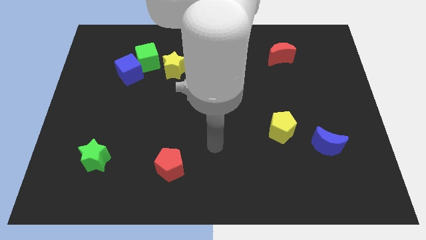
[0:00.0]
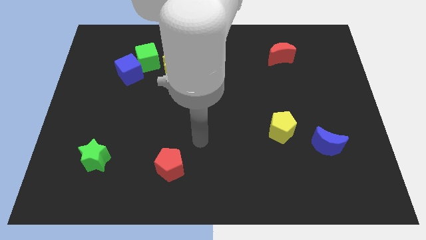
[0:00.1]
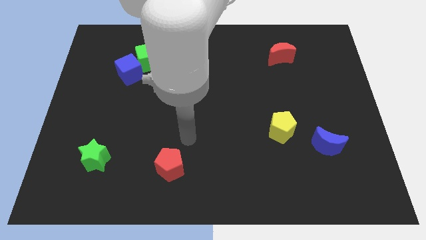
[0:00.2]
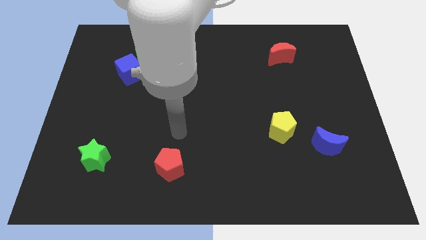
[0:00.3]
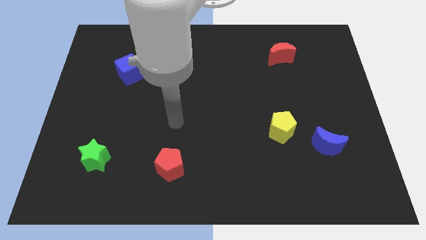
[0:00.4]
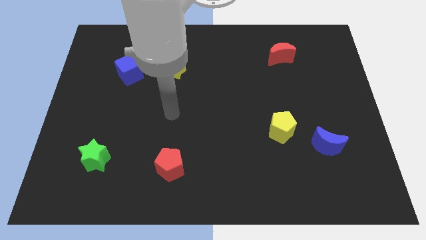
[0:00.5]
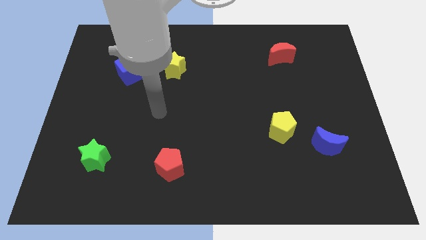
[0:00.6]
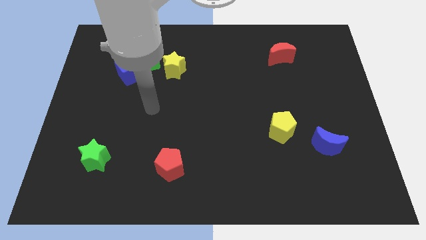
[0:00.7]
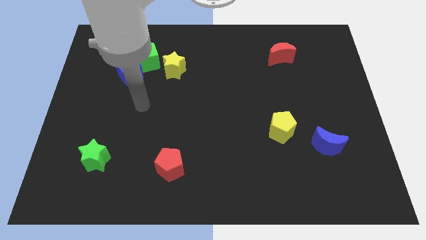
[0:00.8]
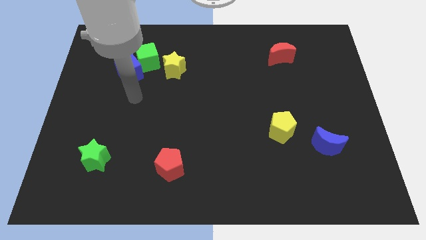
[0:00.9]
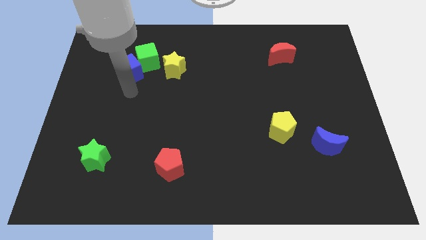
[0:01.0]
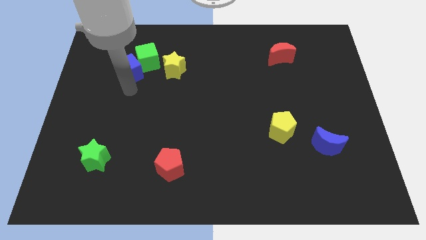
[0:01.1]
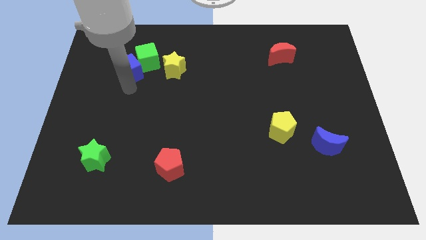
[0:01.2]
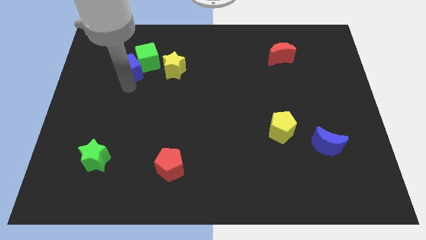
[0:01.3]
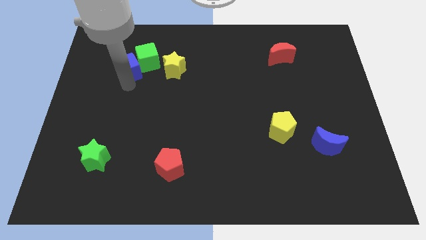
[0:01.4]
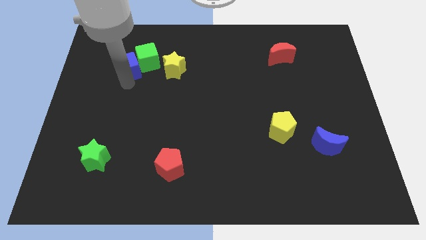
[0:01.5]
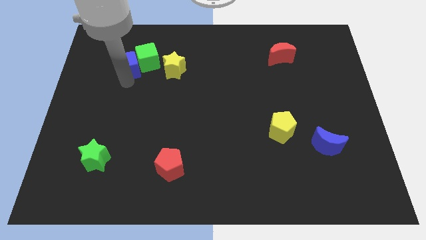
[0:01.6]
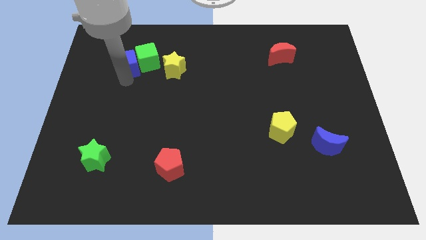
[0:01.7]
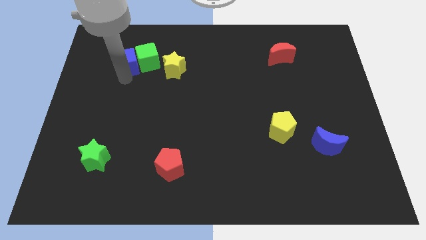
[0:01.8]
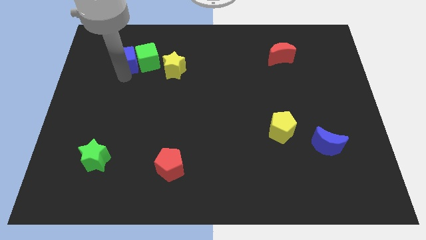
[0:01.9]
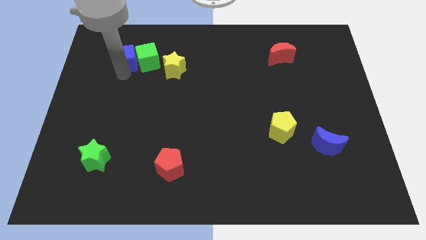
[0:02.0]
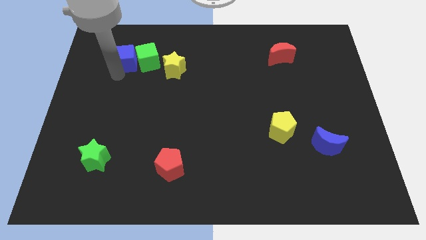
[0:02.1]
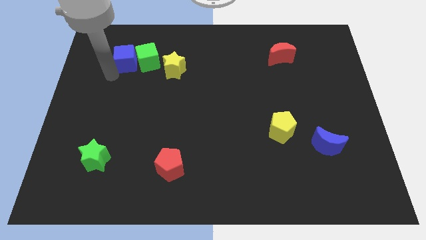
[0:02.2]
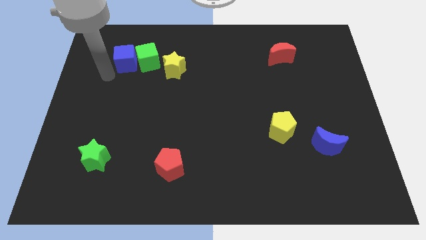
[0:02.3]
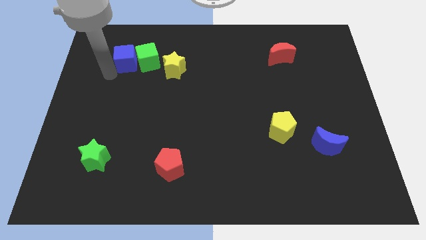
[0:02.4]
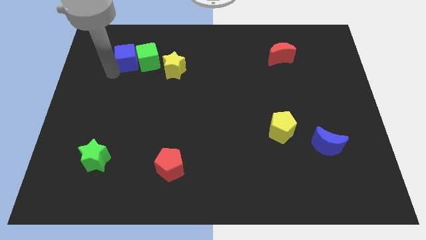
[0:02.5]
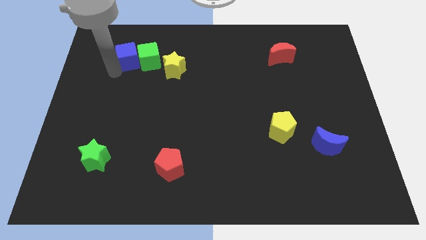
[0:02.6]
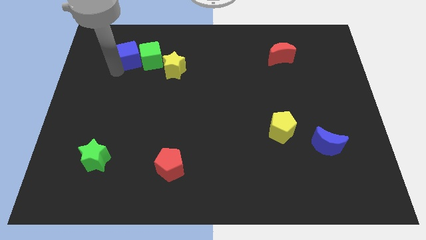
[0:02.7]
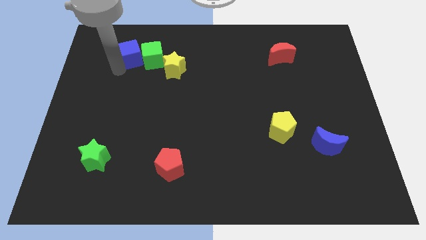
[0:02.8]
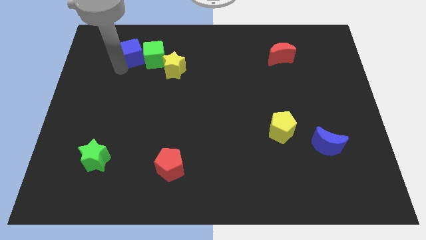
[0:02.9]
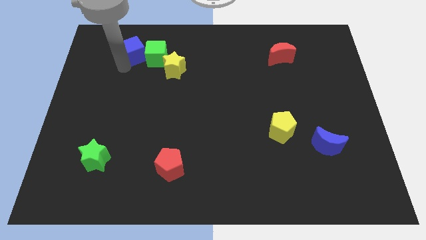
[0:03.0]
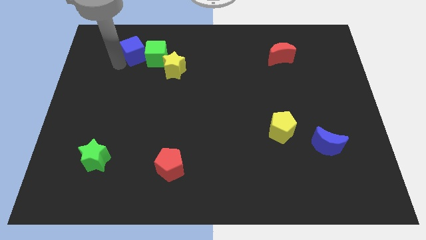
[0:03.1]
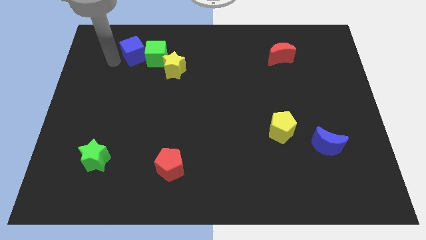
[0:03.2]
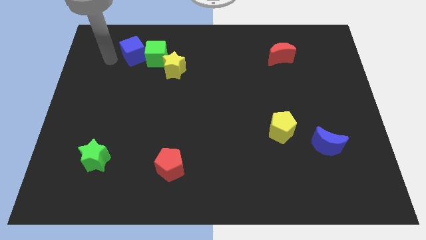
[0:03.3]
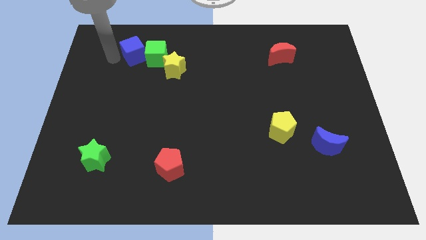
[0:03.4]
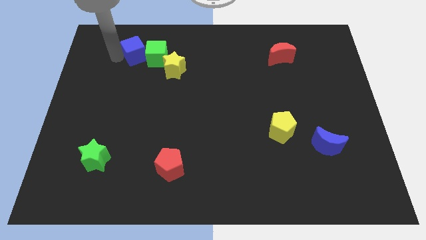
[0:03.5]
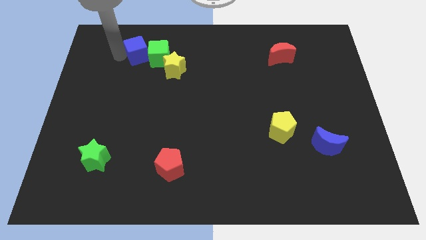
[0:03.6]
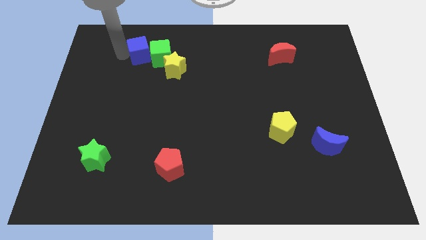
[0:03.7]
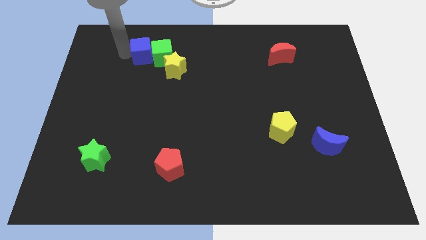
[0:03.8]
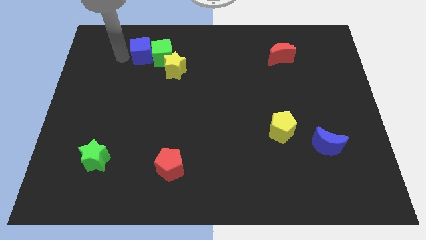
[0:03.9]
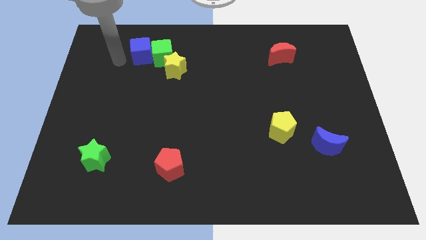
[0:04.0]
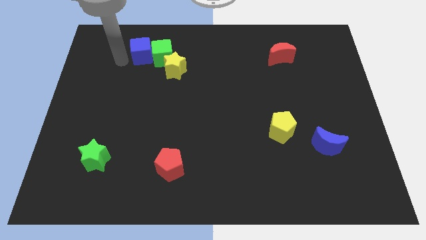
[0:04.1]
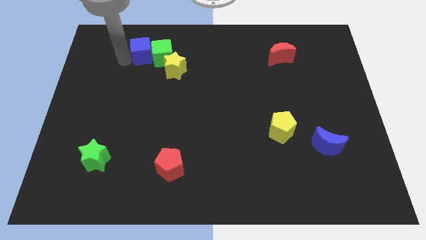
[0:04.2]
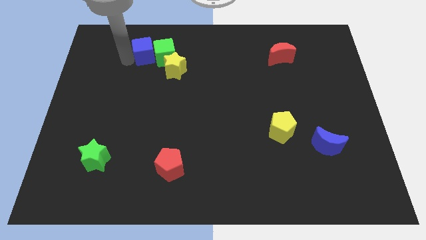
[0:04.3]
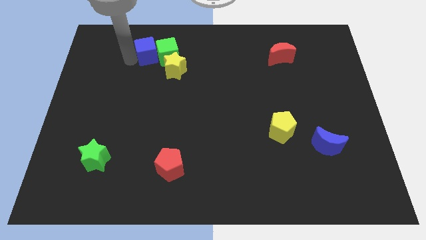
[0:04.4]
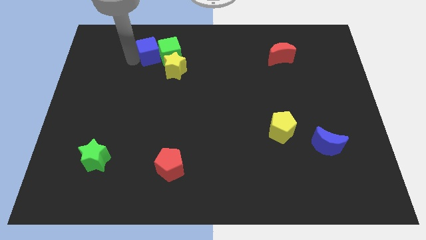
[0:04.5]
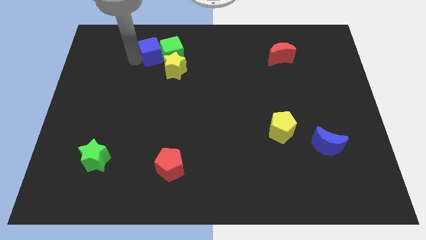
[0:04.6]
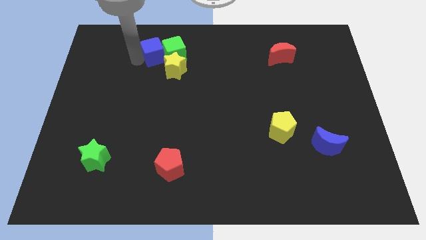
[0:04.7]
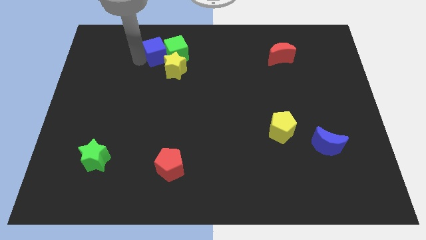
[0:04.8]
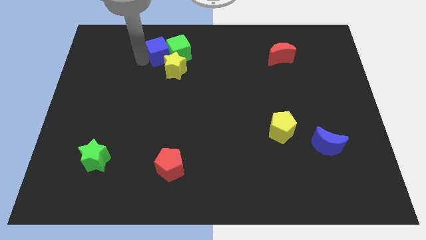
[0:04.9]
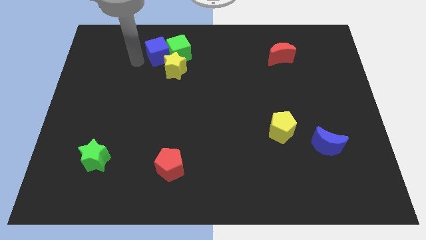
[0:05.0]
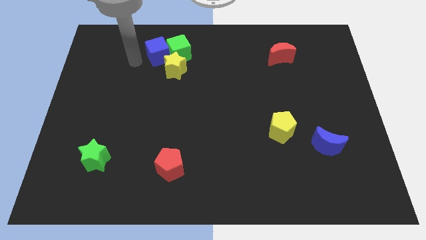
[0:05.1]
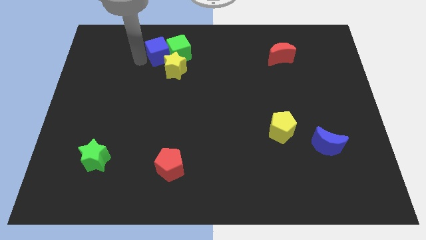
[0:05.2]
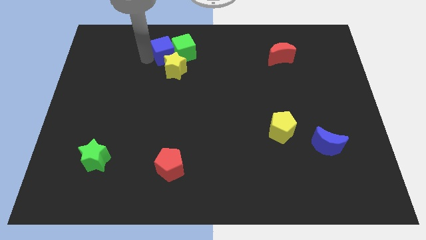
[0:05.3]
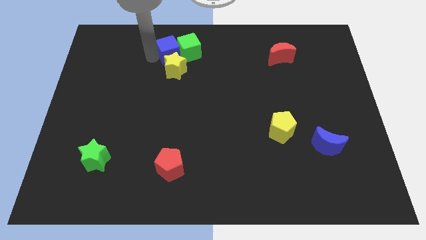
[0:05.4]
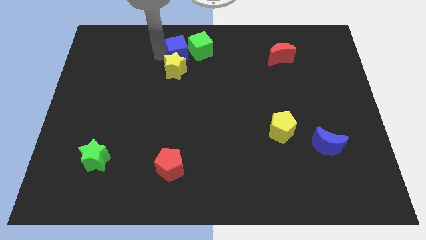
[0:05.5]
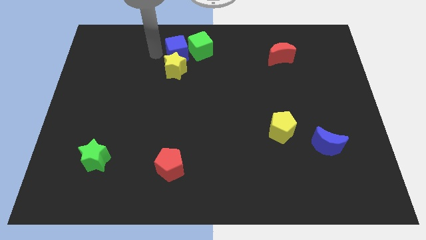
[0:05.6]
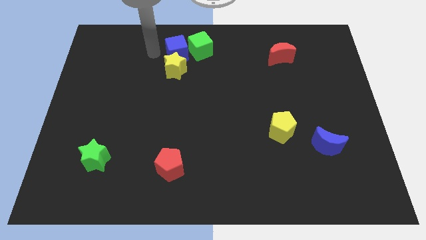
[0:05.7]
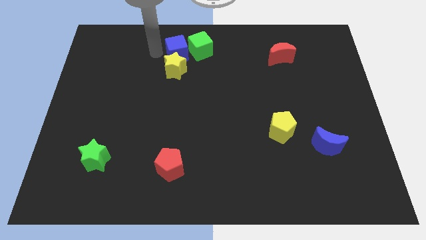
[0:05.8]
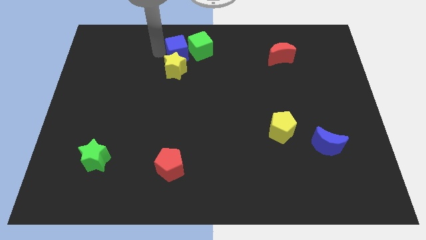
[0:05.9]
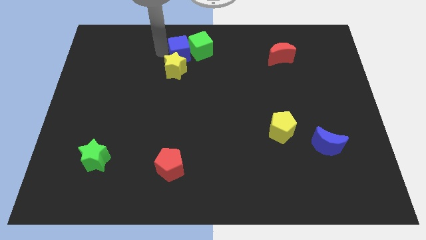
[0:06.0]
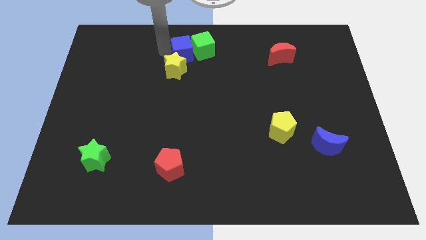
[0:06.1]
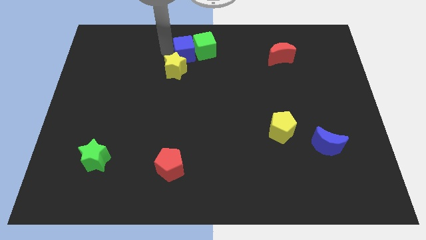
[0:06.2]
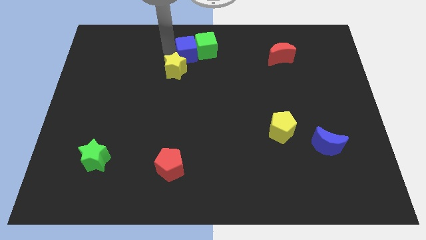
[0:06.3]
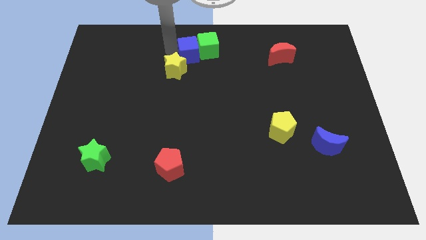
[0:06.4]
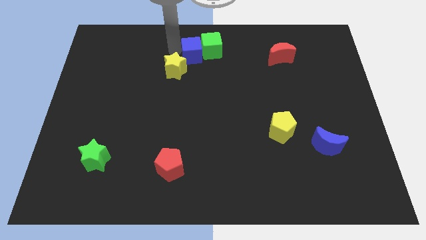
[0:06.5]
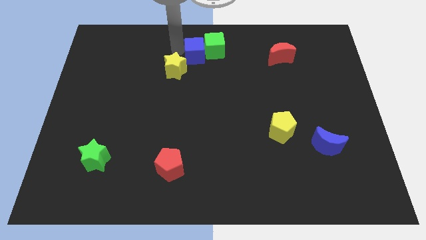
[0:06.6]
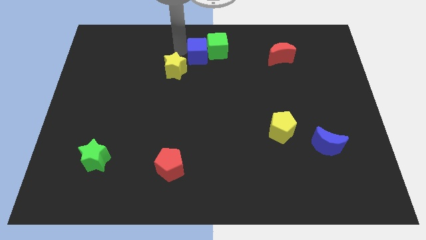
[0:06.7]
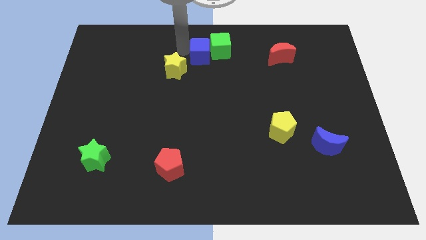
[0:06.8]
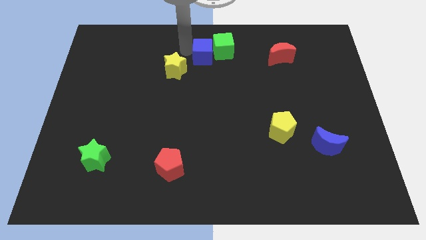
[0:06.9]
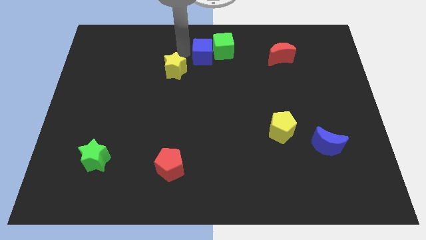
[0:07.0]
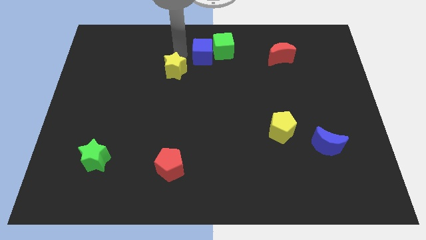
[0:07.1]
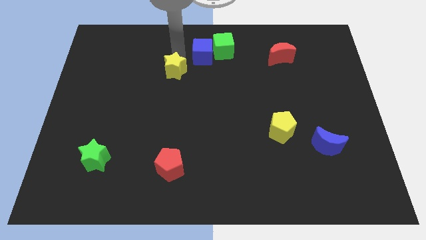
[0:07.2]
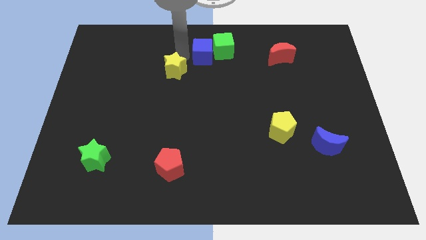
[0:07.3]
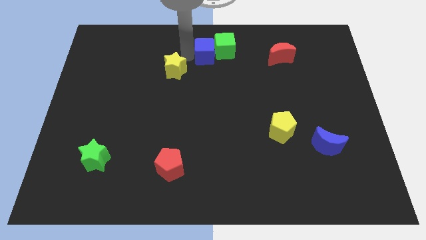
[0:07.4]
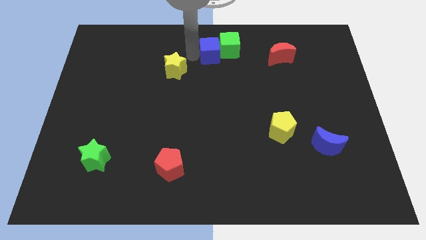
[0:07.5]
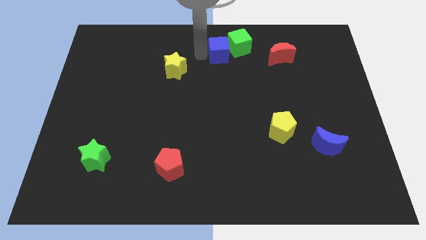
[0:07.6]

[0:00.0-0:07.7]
slide the blue cube to the left of the red moon

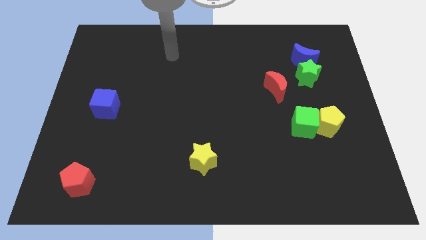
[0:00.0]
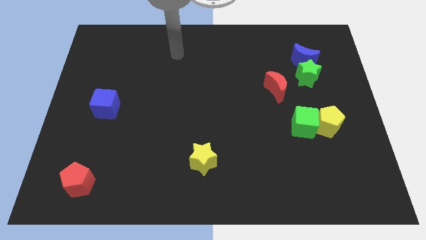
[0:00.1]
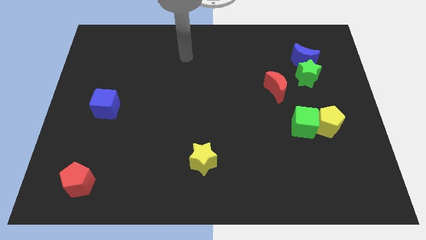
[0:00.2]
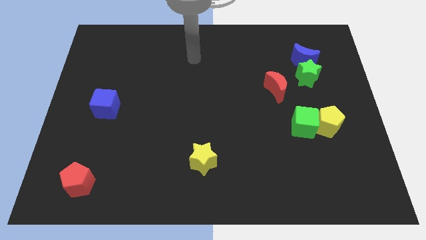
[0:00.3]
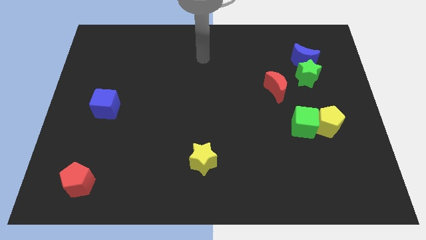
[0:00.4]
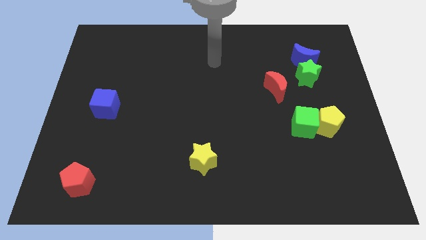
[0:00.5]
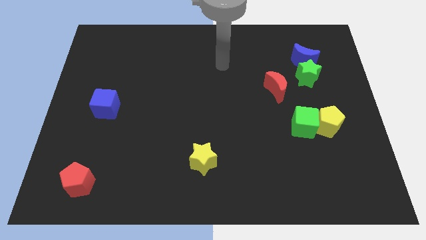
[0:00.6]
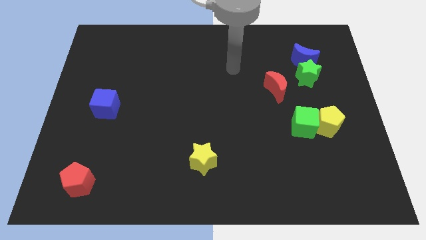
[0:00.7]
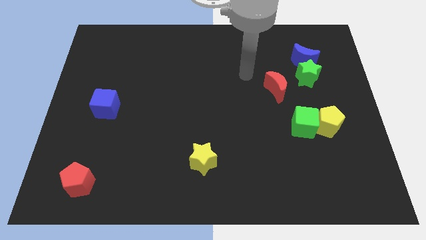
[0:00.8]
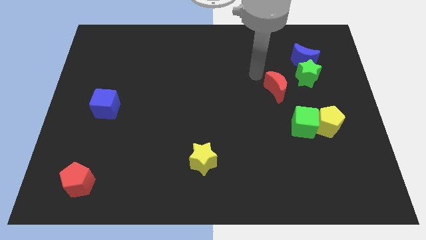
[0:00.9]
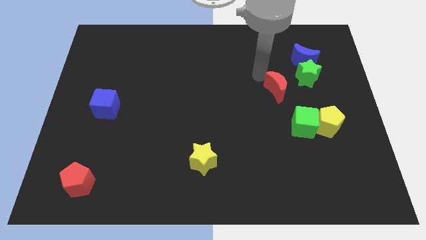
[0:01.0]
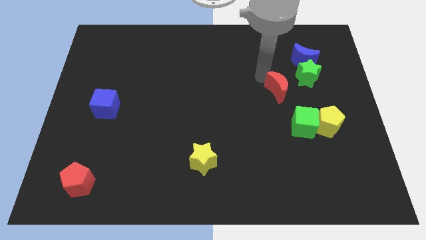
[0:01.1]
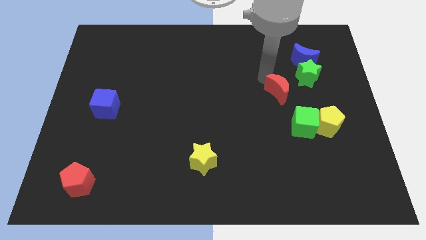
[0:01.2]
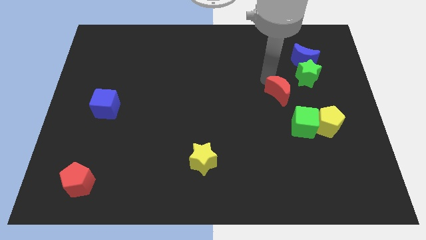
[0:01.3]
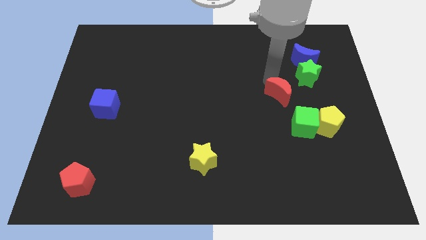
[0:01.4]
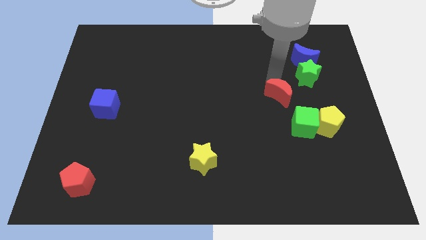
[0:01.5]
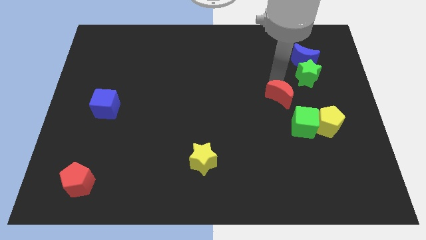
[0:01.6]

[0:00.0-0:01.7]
push the red moon to the top left of the yellow pentagon
